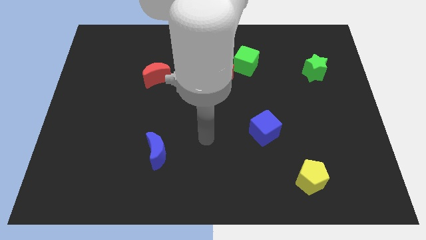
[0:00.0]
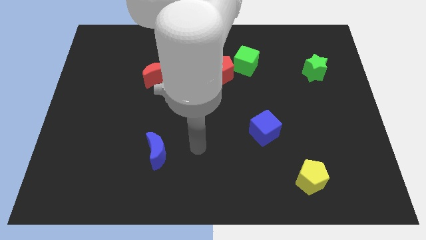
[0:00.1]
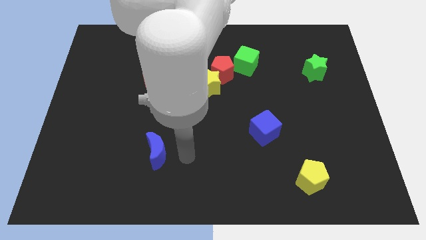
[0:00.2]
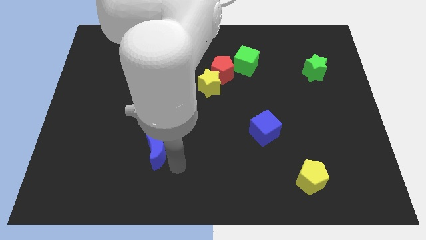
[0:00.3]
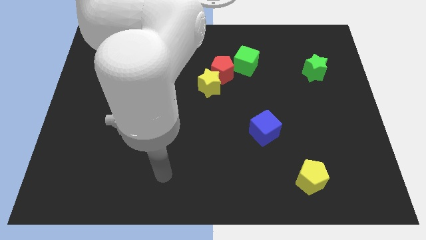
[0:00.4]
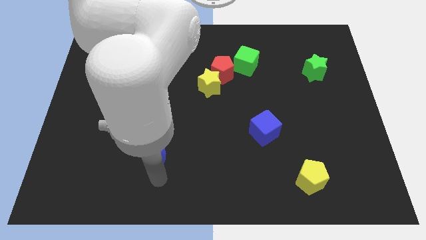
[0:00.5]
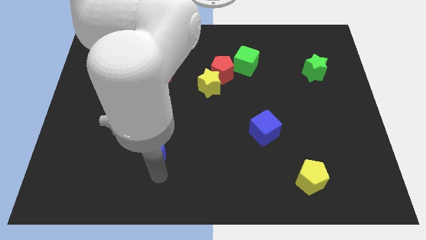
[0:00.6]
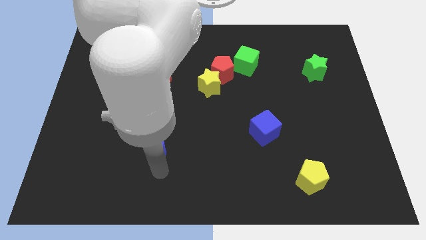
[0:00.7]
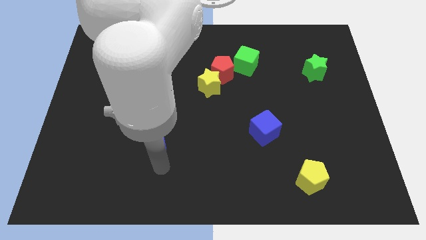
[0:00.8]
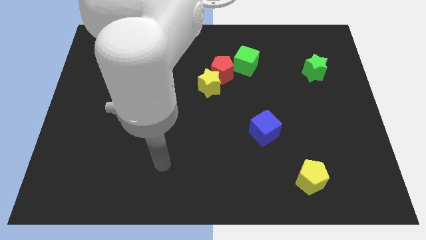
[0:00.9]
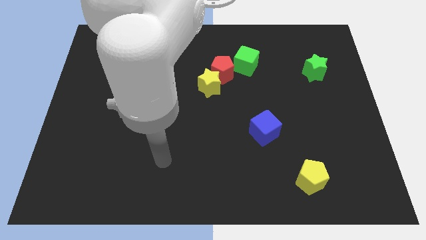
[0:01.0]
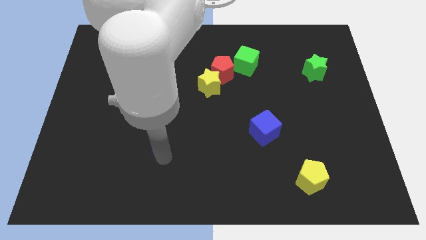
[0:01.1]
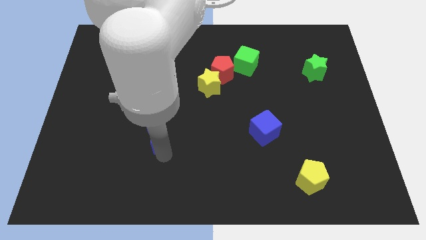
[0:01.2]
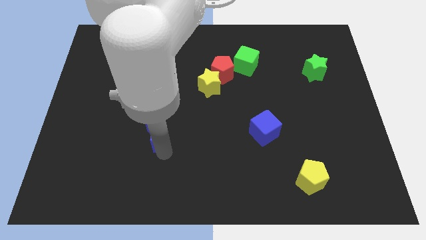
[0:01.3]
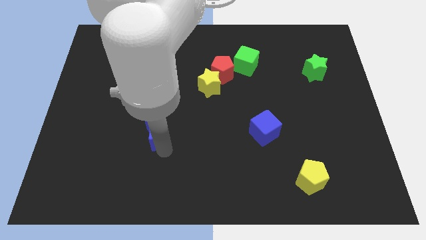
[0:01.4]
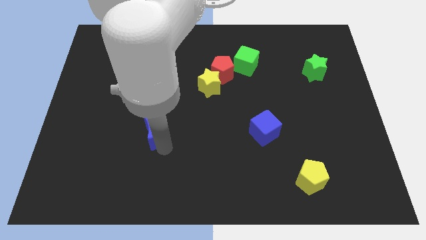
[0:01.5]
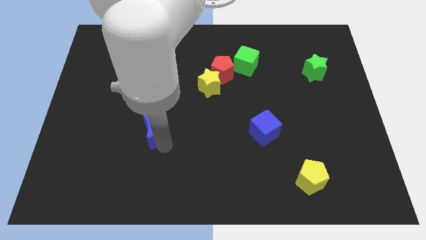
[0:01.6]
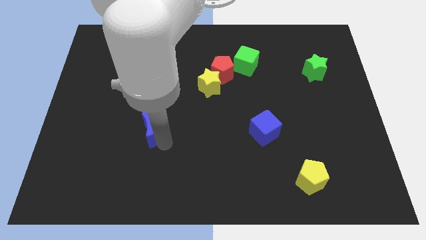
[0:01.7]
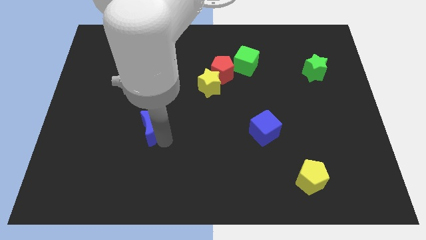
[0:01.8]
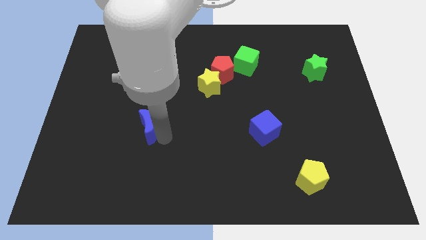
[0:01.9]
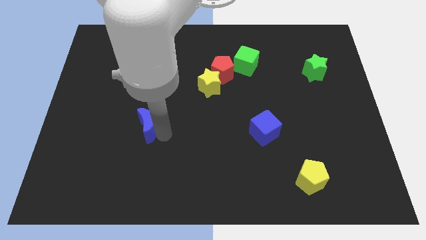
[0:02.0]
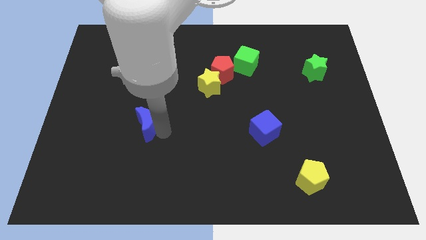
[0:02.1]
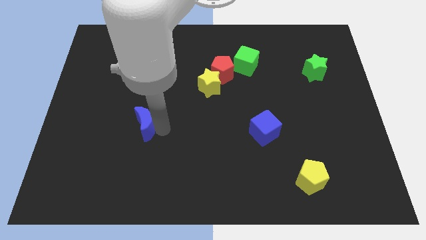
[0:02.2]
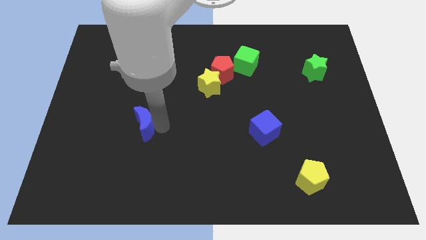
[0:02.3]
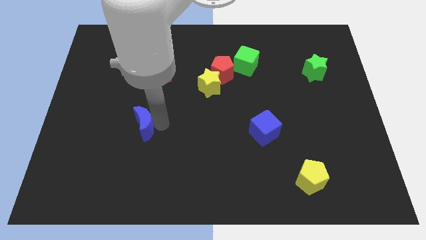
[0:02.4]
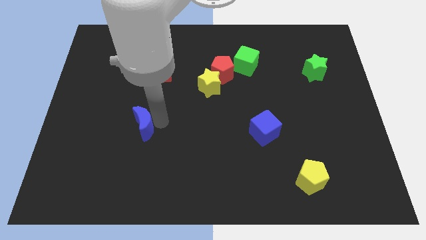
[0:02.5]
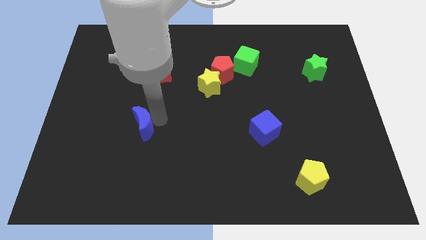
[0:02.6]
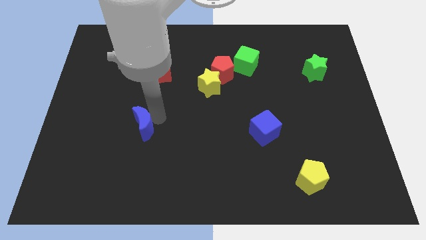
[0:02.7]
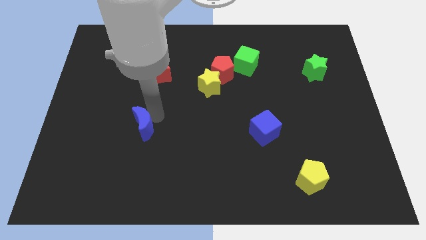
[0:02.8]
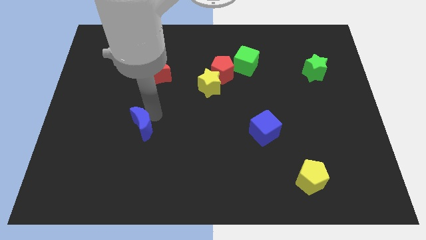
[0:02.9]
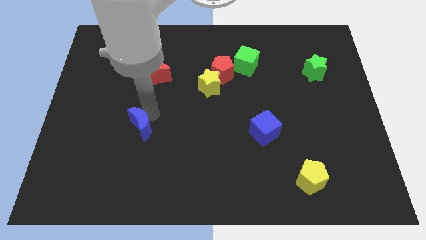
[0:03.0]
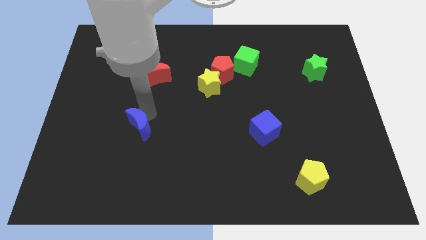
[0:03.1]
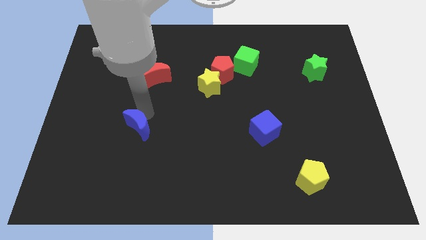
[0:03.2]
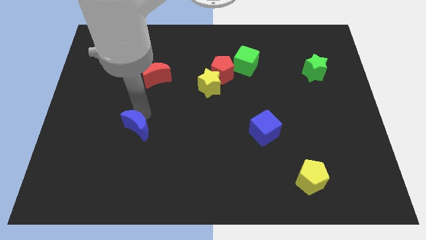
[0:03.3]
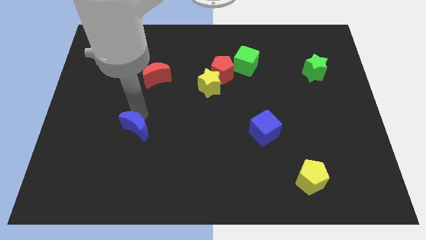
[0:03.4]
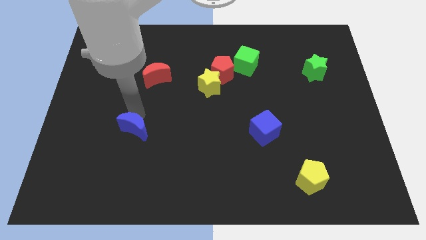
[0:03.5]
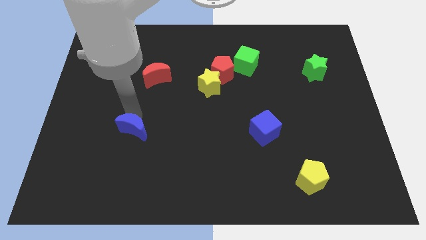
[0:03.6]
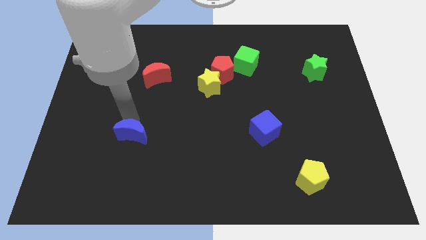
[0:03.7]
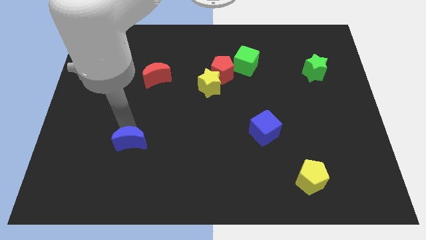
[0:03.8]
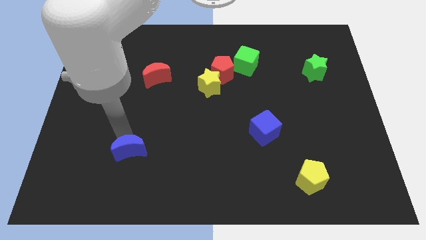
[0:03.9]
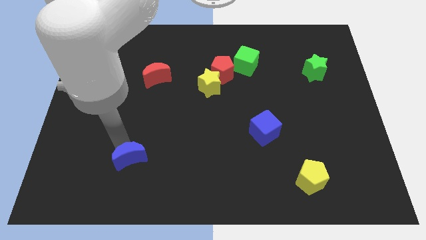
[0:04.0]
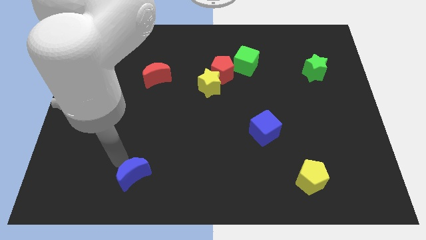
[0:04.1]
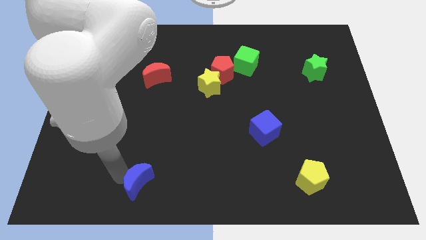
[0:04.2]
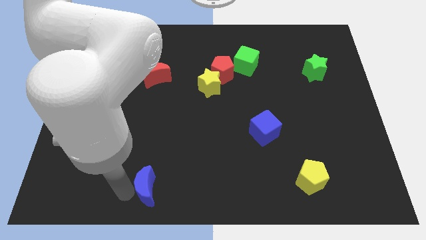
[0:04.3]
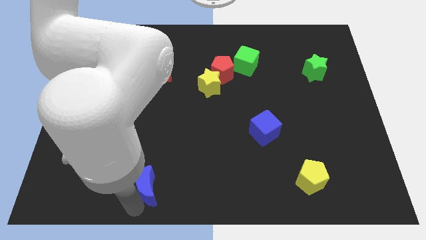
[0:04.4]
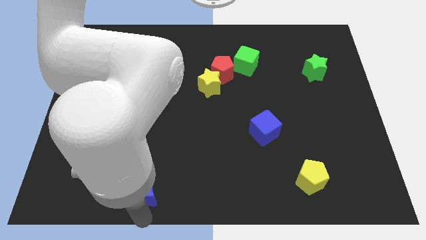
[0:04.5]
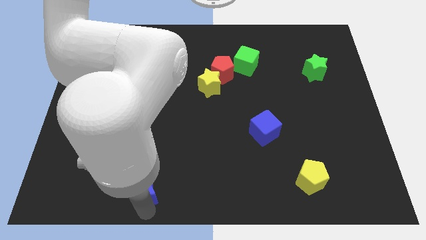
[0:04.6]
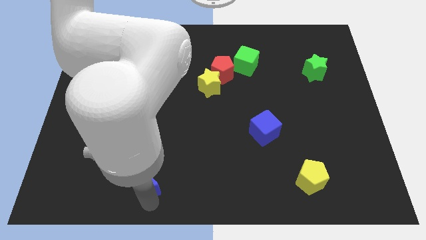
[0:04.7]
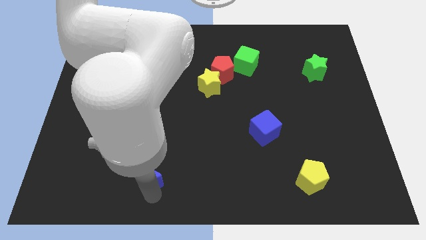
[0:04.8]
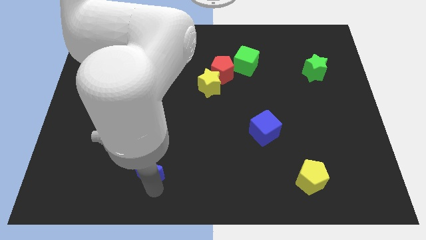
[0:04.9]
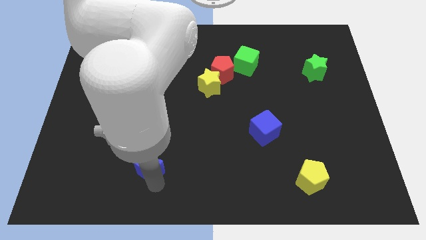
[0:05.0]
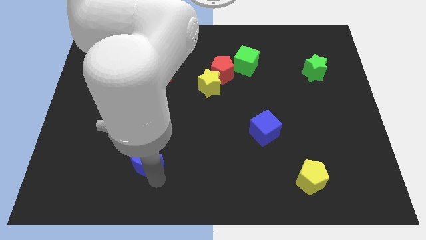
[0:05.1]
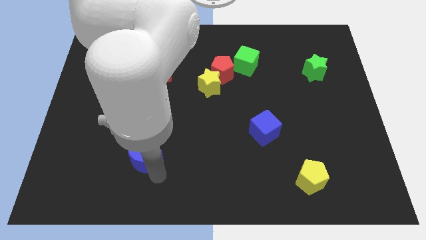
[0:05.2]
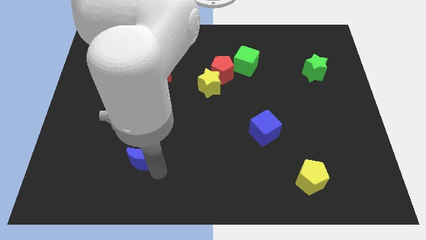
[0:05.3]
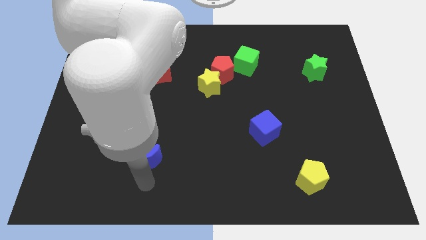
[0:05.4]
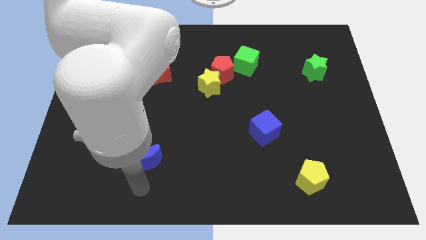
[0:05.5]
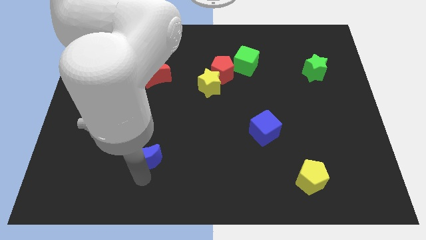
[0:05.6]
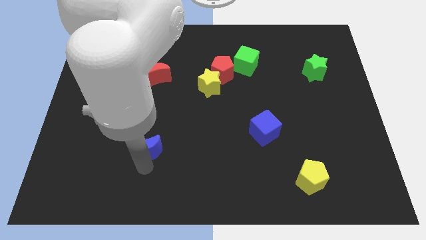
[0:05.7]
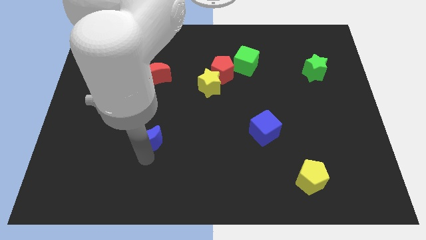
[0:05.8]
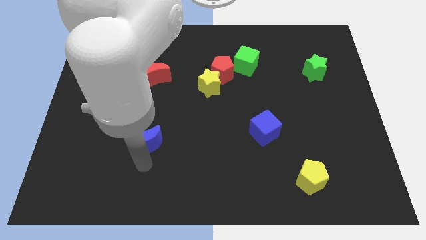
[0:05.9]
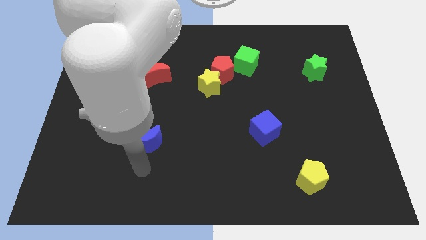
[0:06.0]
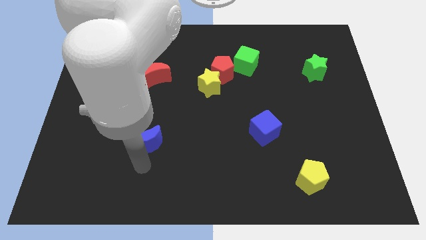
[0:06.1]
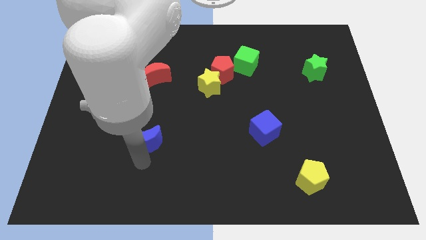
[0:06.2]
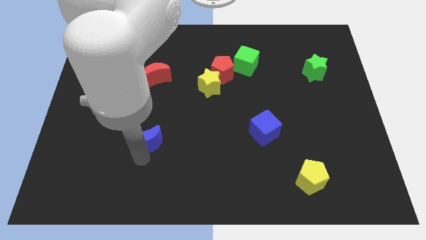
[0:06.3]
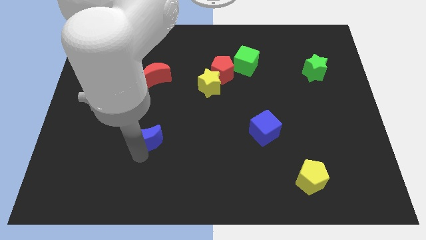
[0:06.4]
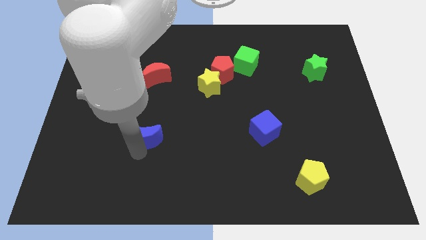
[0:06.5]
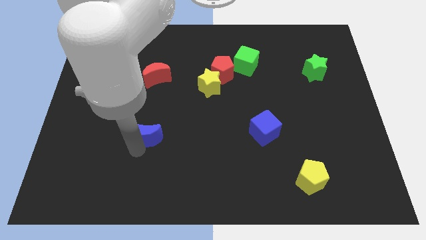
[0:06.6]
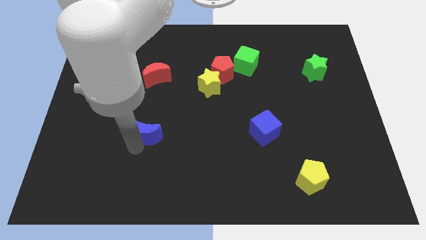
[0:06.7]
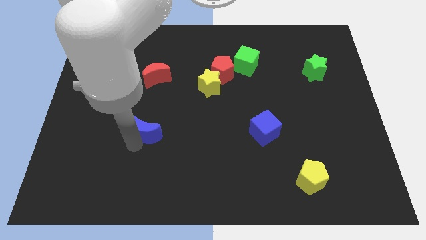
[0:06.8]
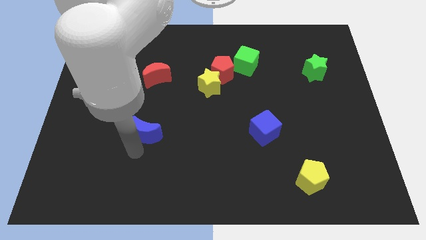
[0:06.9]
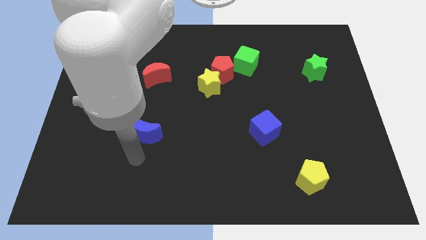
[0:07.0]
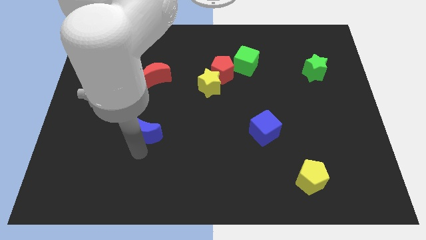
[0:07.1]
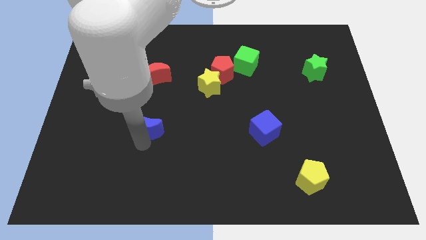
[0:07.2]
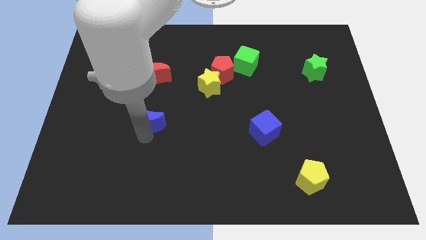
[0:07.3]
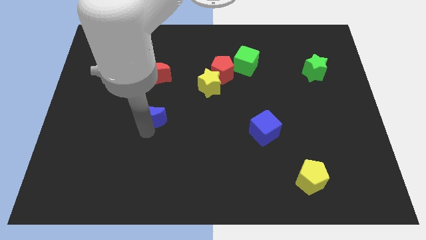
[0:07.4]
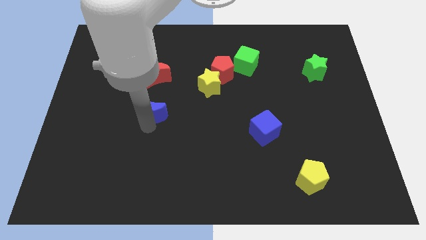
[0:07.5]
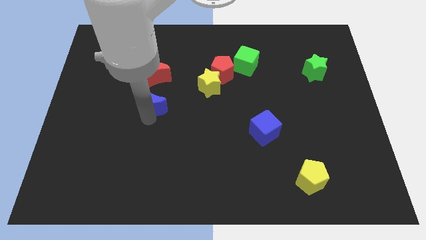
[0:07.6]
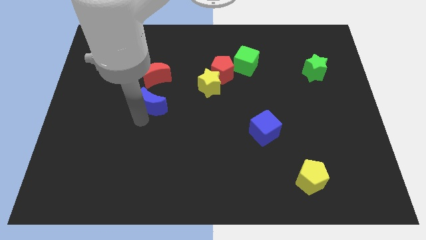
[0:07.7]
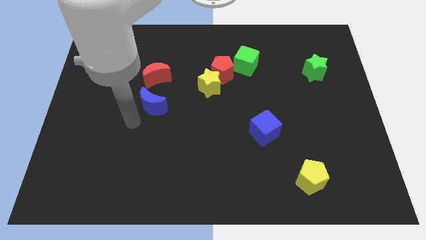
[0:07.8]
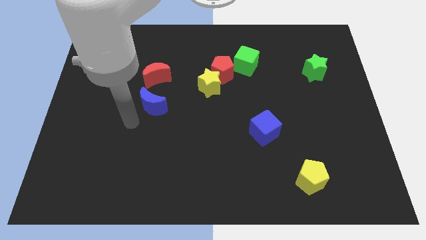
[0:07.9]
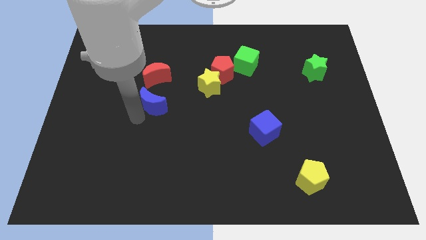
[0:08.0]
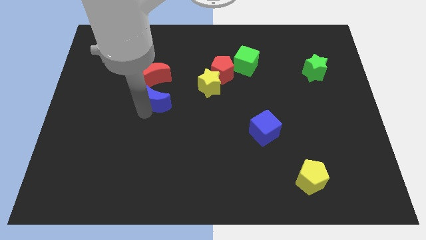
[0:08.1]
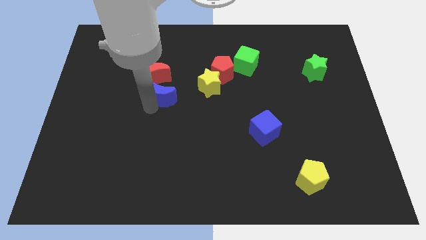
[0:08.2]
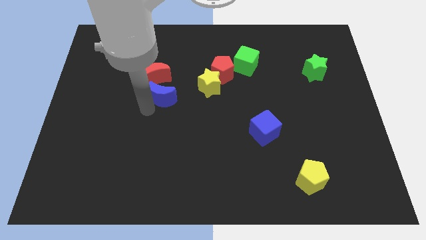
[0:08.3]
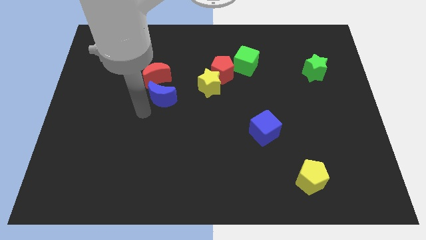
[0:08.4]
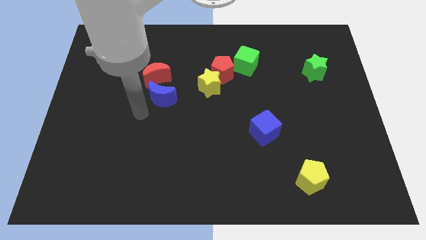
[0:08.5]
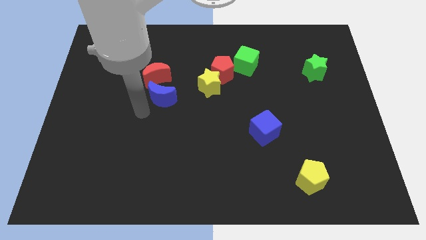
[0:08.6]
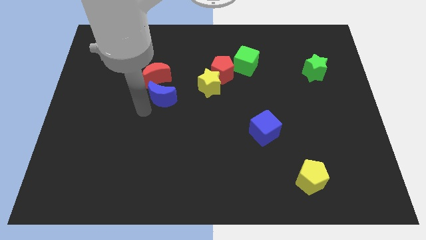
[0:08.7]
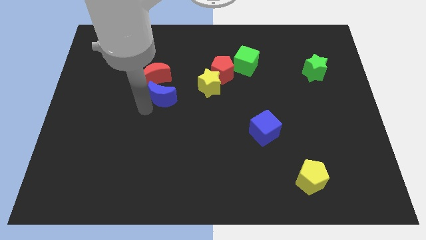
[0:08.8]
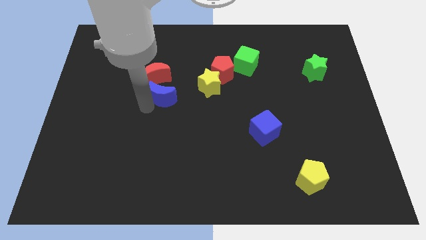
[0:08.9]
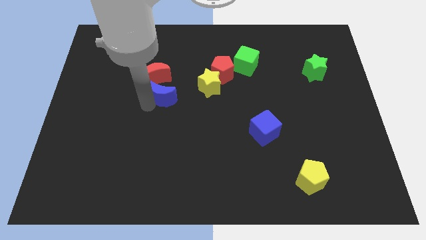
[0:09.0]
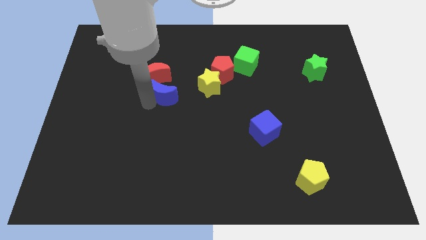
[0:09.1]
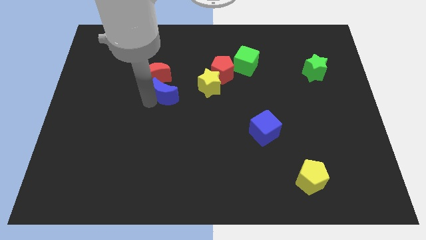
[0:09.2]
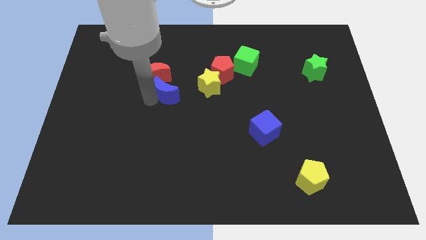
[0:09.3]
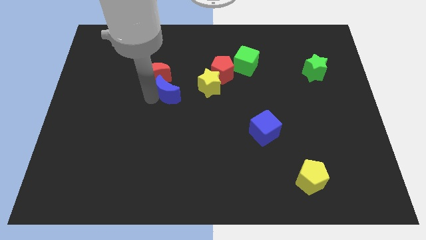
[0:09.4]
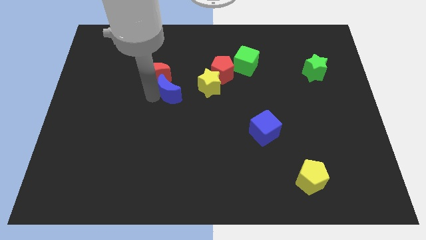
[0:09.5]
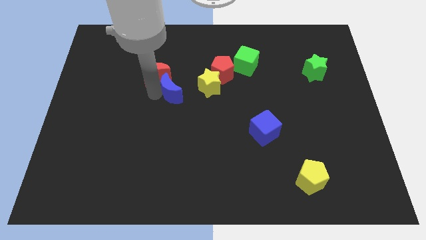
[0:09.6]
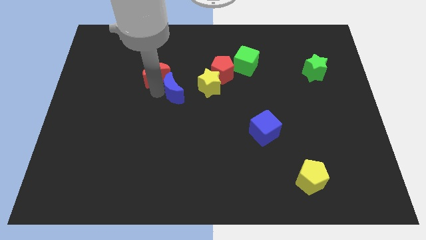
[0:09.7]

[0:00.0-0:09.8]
put the blue moon just right of the red moon
